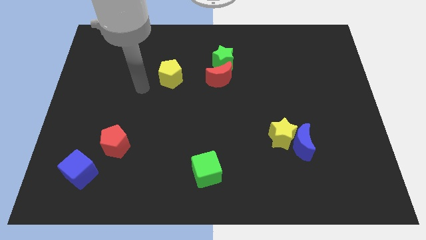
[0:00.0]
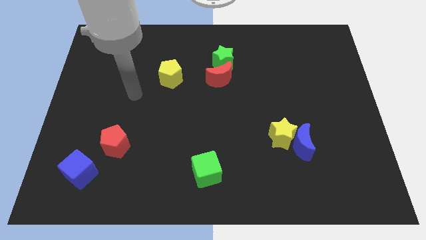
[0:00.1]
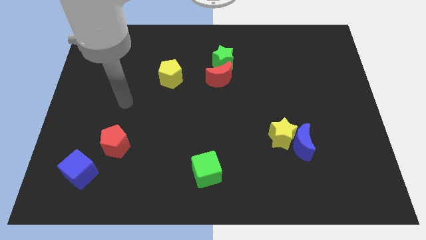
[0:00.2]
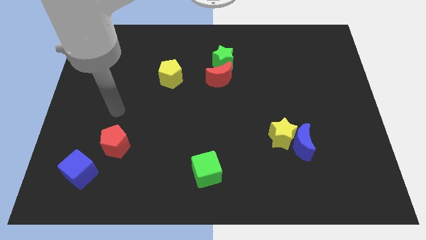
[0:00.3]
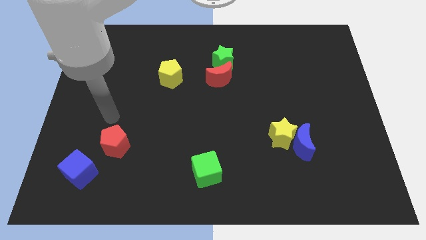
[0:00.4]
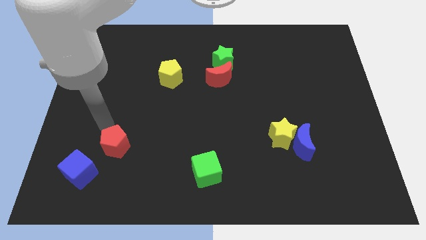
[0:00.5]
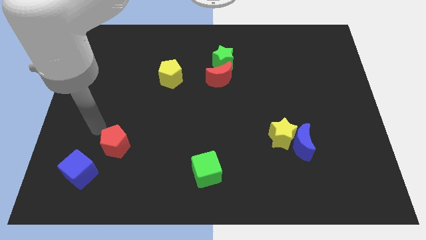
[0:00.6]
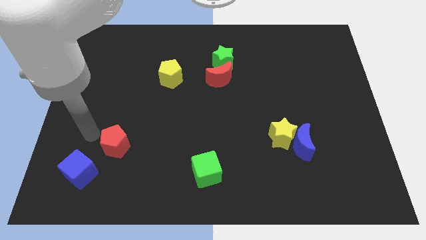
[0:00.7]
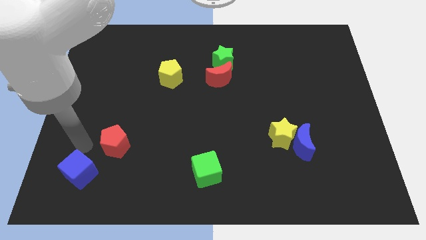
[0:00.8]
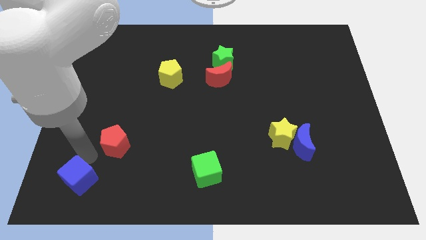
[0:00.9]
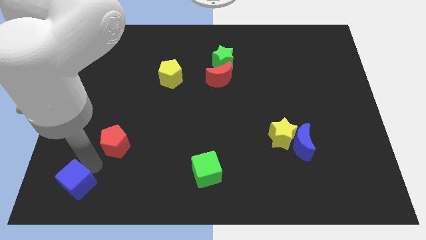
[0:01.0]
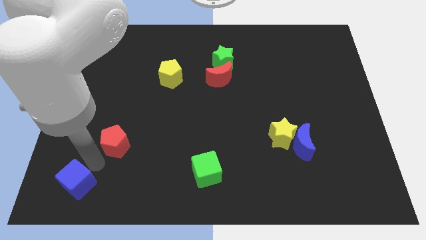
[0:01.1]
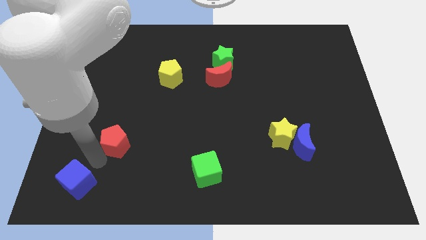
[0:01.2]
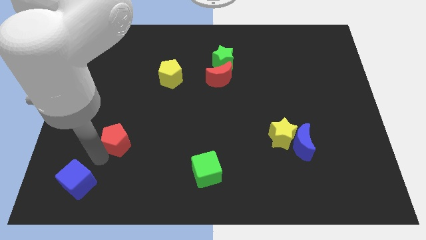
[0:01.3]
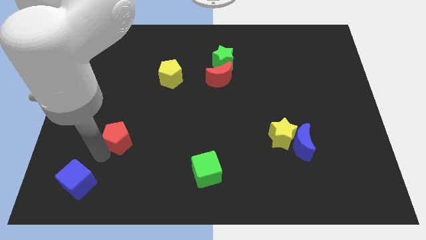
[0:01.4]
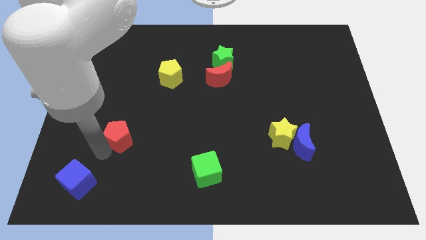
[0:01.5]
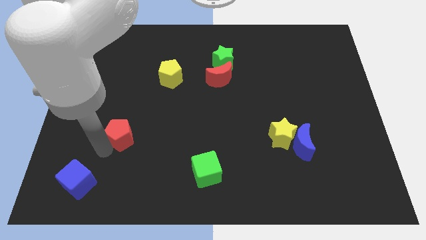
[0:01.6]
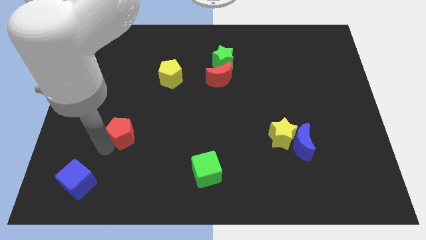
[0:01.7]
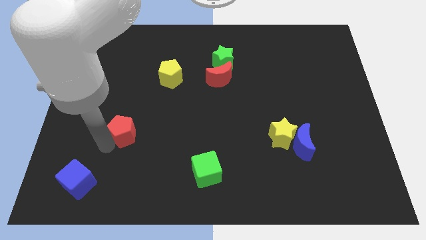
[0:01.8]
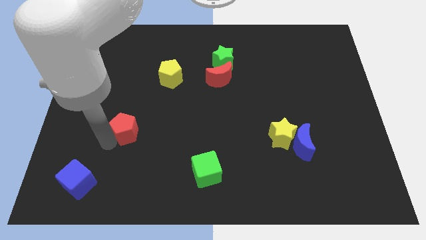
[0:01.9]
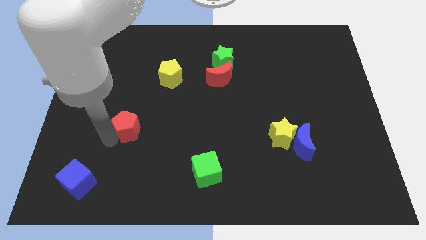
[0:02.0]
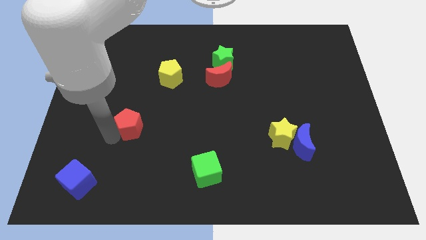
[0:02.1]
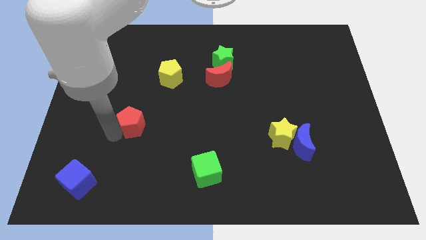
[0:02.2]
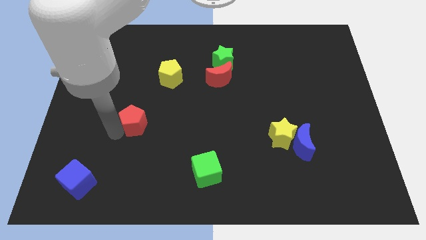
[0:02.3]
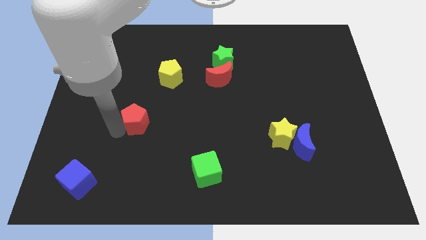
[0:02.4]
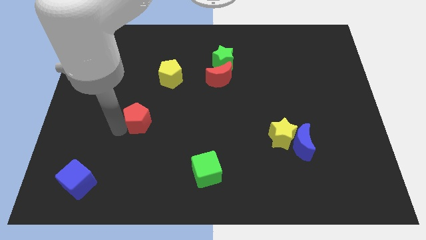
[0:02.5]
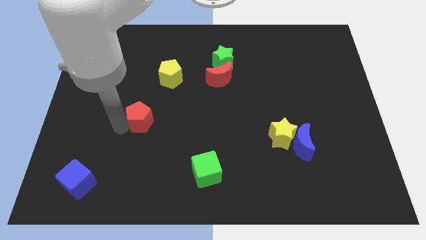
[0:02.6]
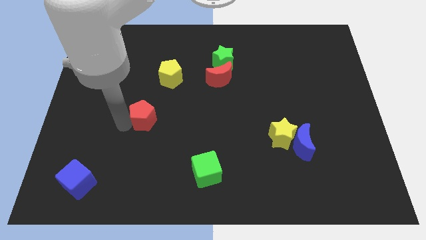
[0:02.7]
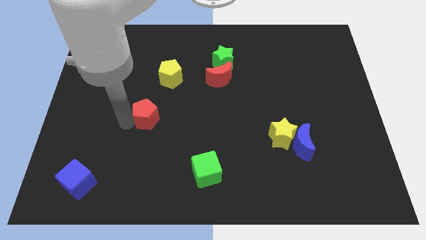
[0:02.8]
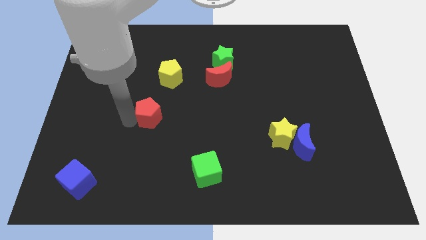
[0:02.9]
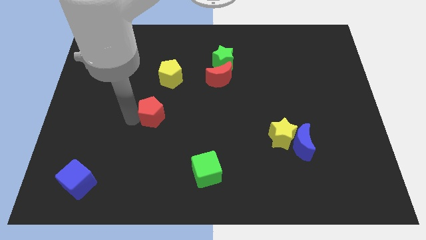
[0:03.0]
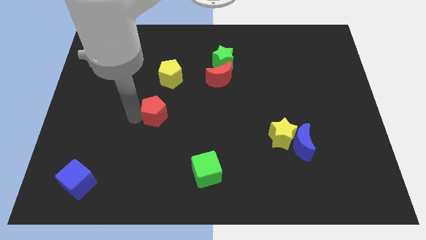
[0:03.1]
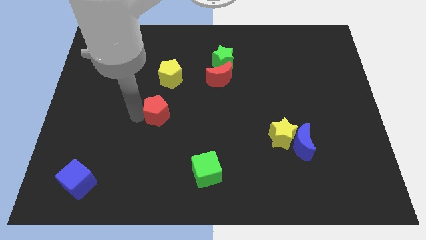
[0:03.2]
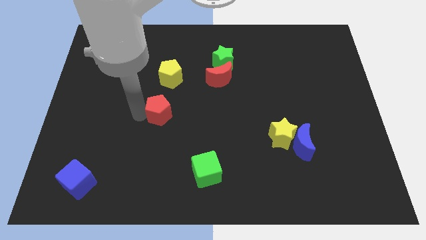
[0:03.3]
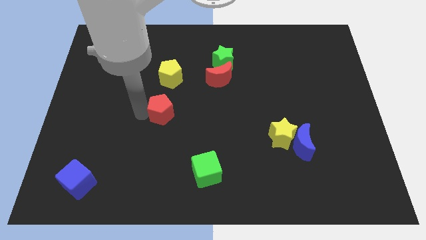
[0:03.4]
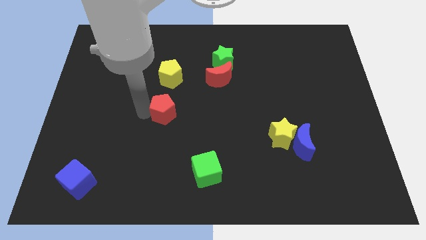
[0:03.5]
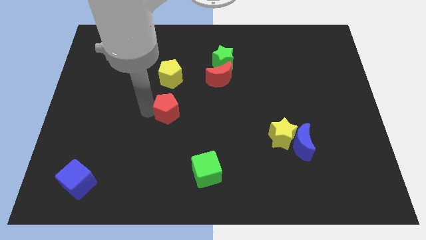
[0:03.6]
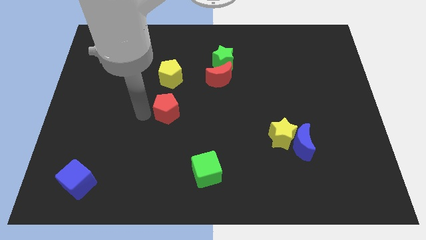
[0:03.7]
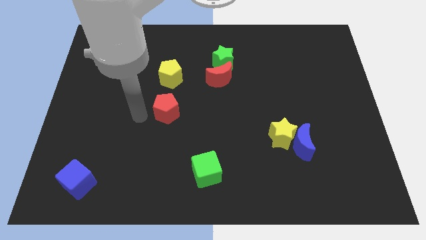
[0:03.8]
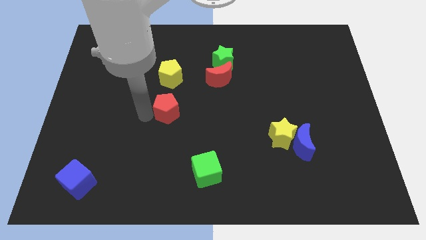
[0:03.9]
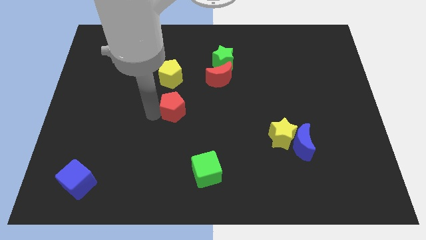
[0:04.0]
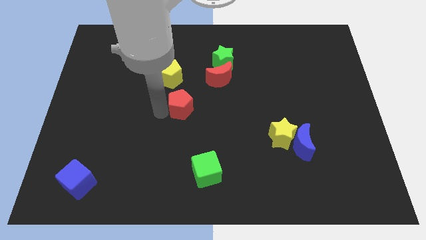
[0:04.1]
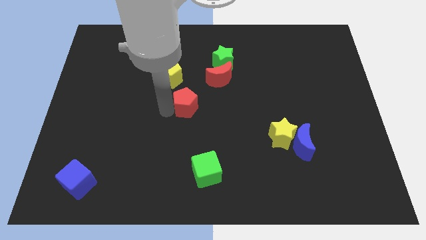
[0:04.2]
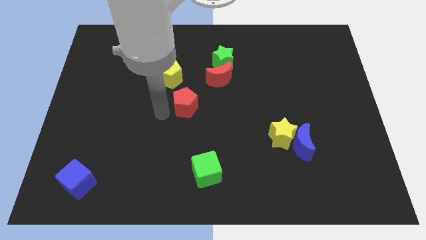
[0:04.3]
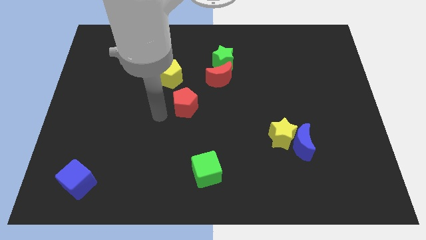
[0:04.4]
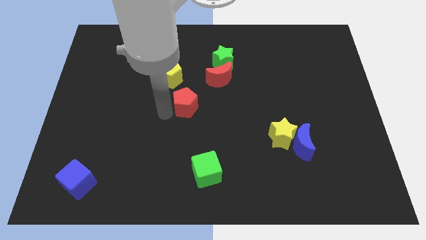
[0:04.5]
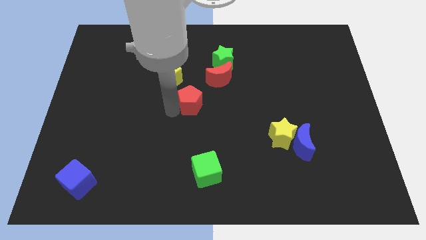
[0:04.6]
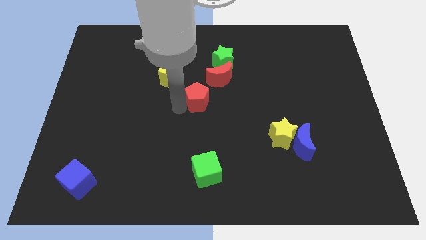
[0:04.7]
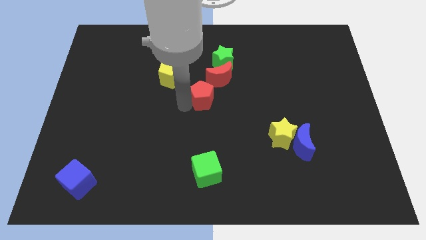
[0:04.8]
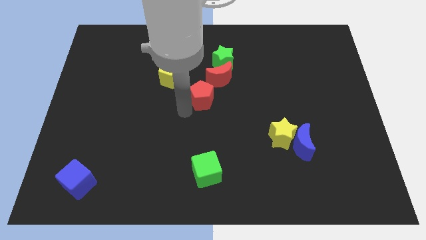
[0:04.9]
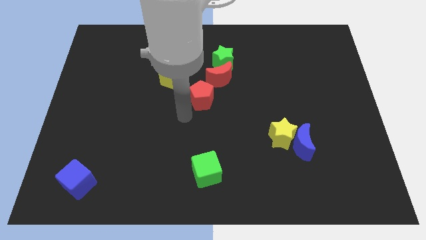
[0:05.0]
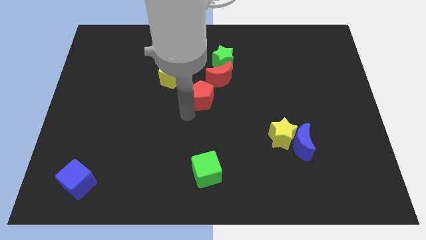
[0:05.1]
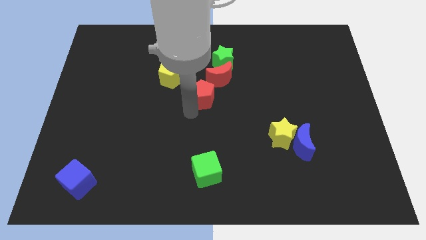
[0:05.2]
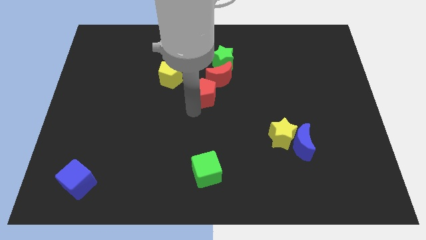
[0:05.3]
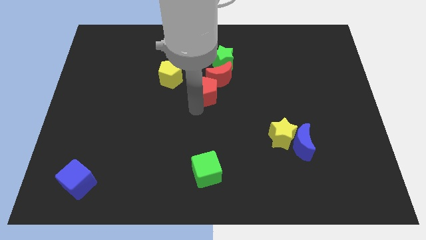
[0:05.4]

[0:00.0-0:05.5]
slide the red pentagon to the red moon

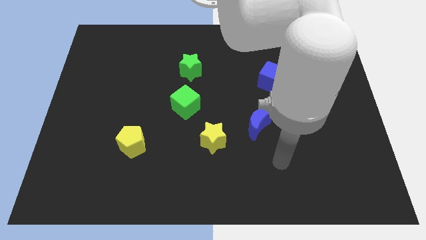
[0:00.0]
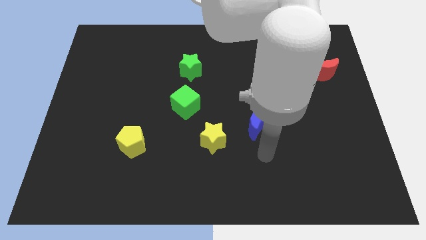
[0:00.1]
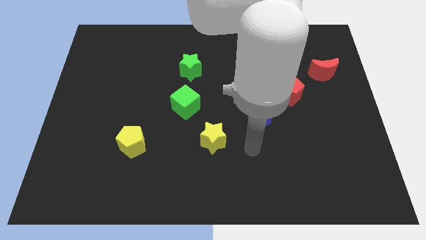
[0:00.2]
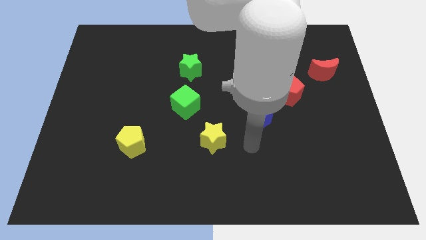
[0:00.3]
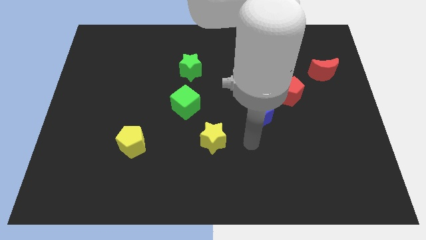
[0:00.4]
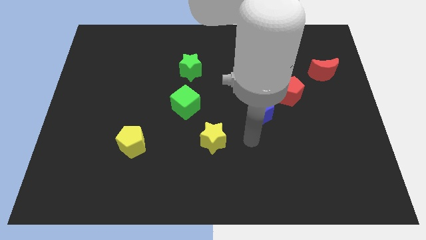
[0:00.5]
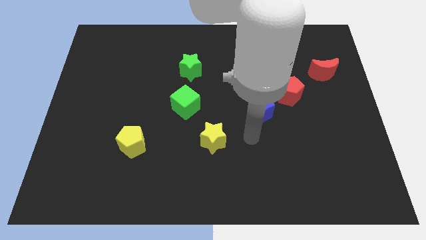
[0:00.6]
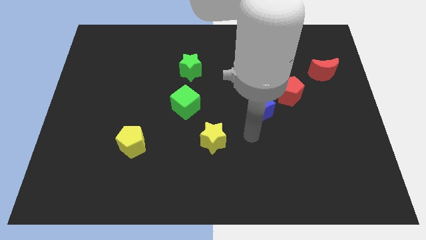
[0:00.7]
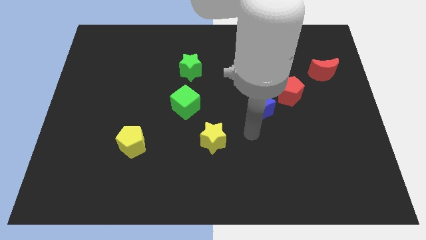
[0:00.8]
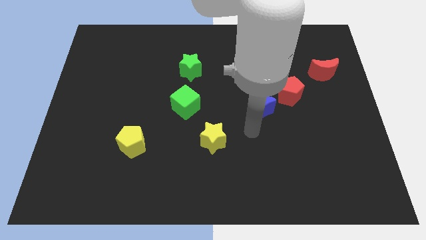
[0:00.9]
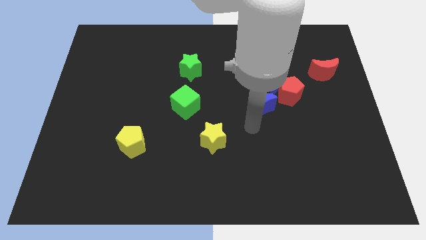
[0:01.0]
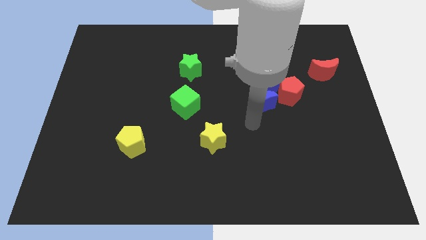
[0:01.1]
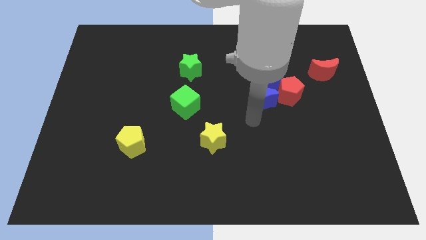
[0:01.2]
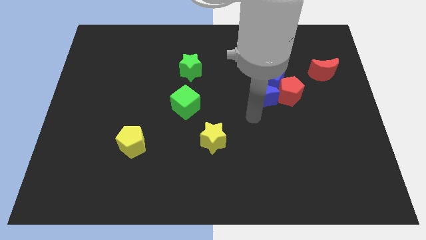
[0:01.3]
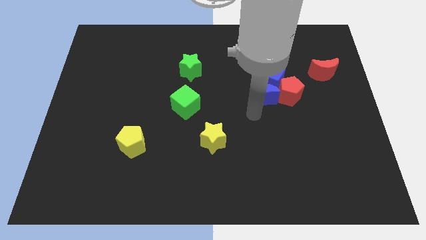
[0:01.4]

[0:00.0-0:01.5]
put the blue moon close to the blue cube
